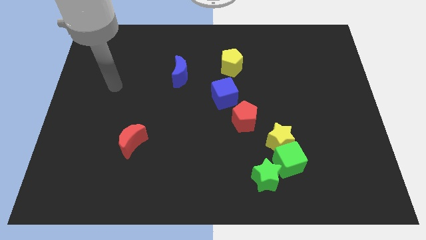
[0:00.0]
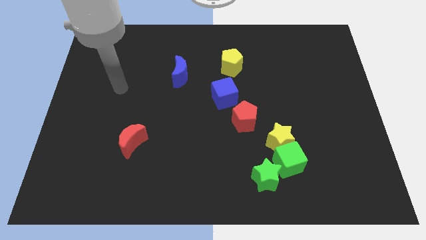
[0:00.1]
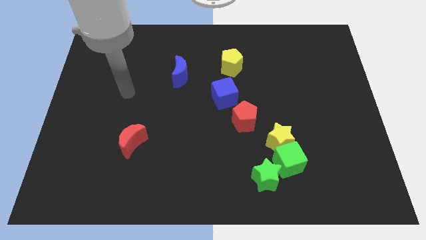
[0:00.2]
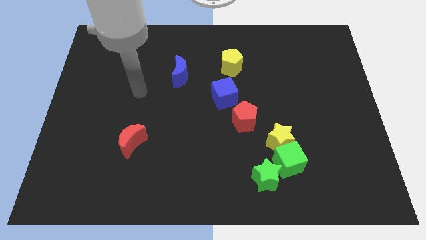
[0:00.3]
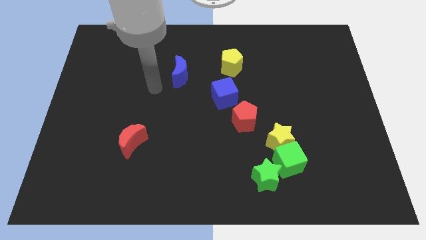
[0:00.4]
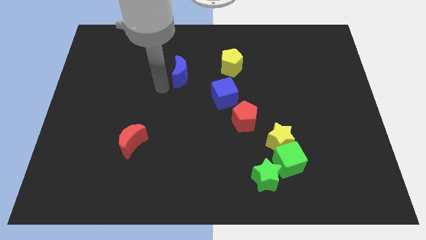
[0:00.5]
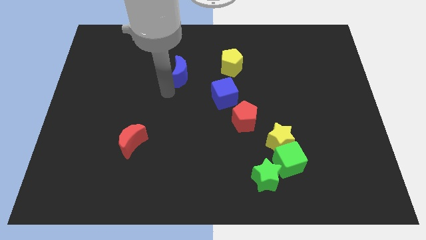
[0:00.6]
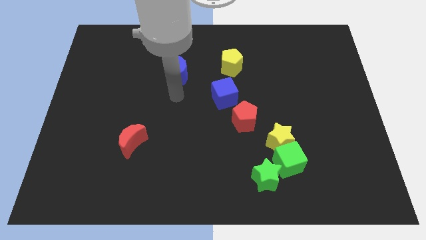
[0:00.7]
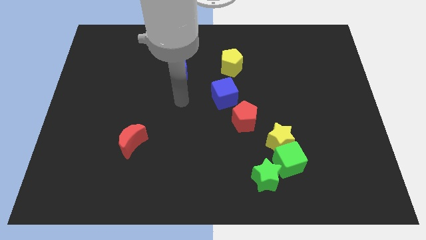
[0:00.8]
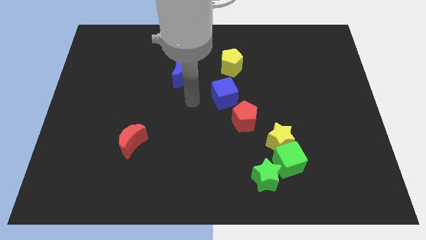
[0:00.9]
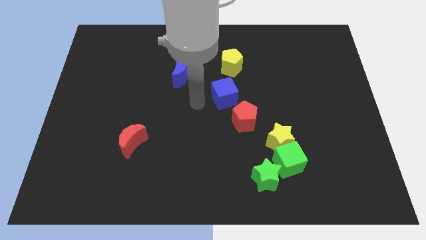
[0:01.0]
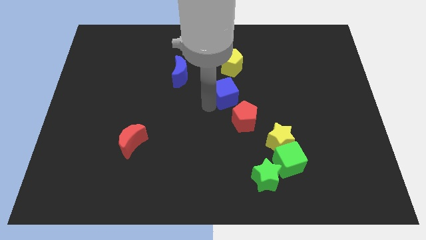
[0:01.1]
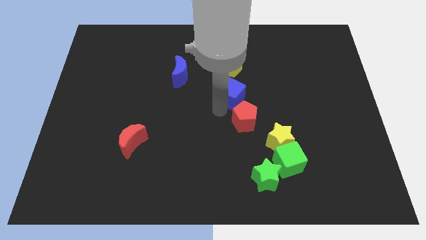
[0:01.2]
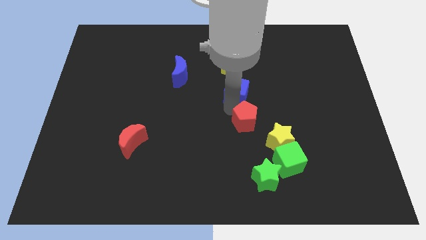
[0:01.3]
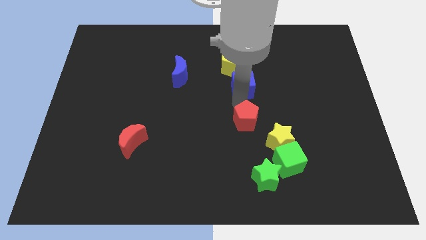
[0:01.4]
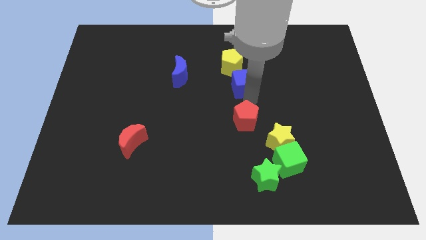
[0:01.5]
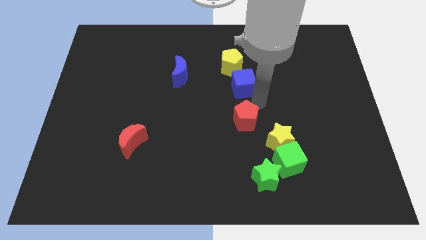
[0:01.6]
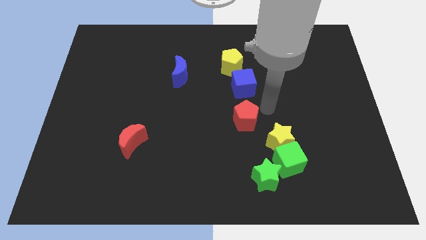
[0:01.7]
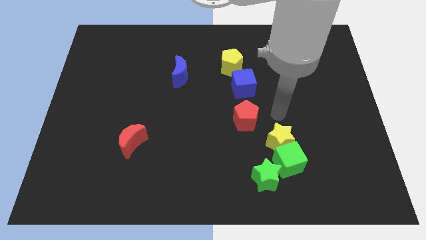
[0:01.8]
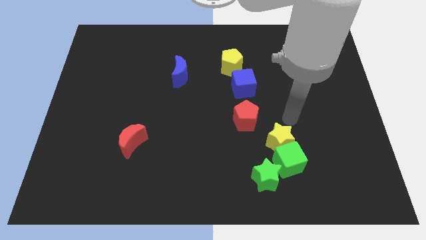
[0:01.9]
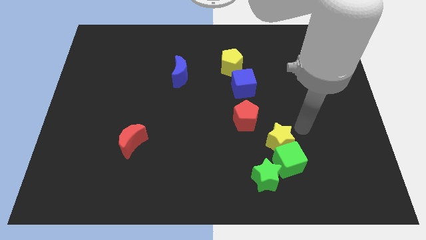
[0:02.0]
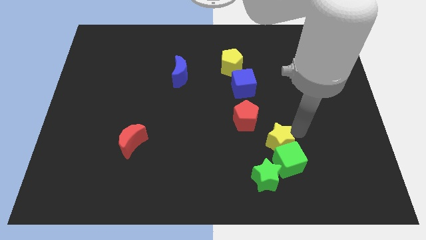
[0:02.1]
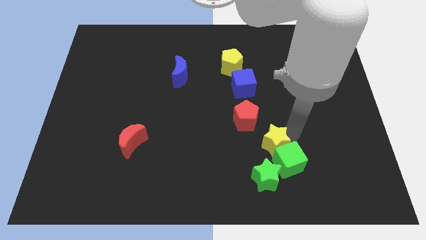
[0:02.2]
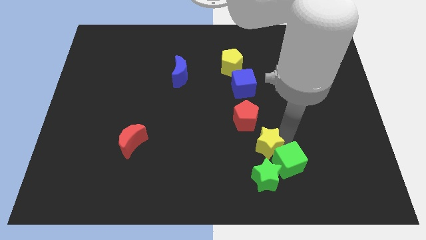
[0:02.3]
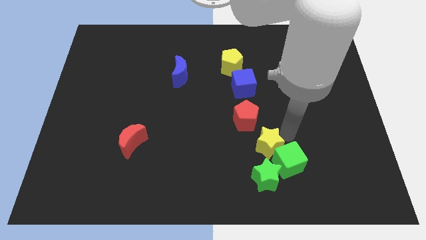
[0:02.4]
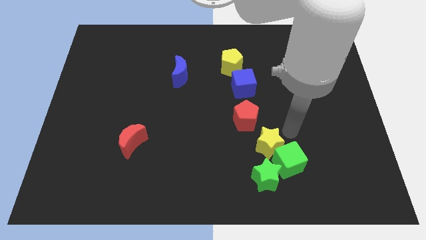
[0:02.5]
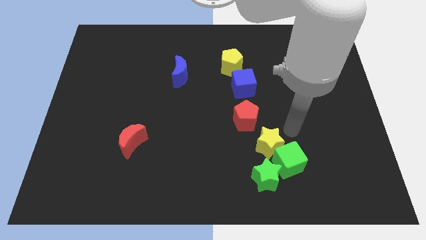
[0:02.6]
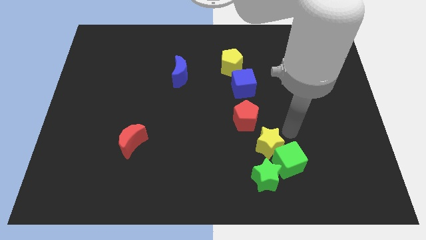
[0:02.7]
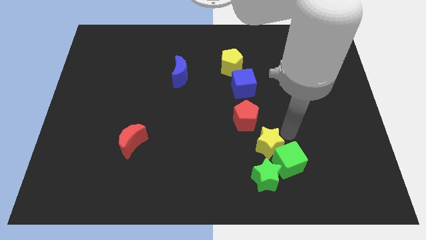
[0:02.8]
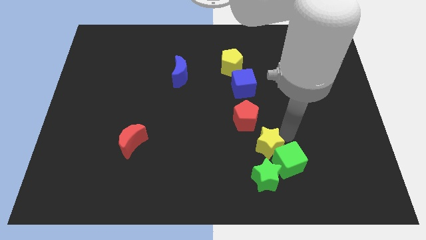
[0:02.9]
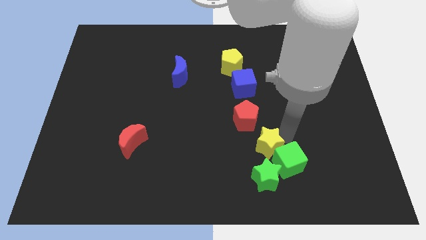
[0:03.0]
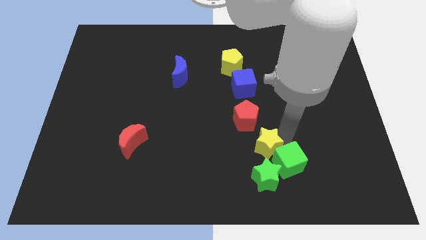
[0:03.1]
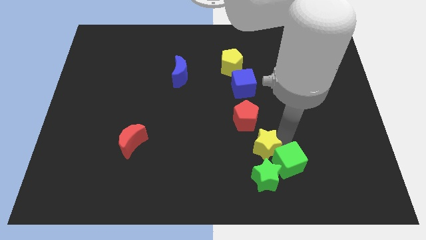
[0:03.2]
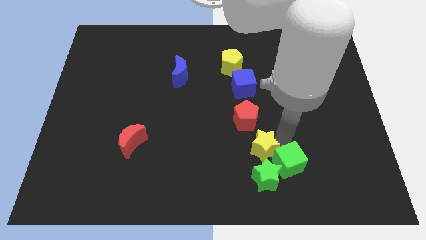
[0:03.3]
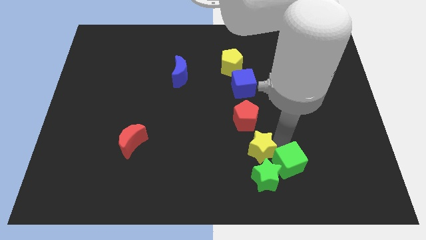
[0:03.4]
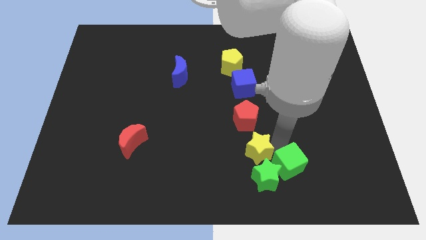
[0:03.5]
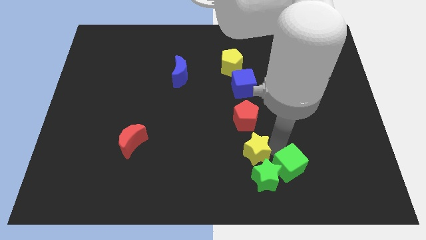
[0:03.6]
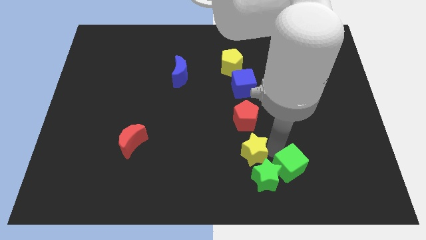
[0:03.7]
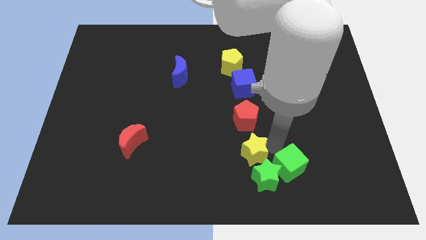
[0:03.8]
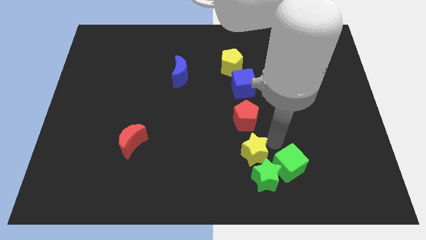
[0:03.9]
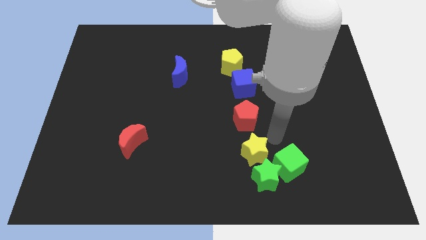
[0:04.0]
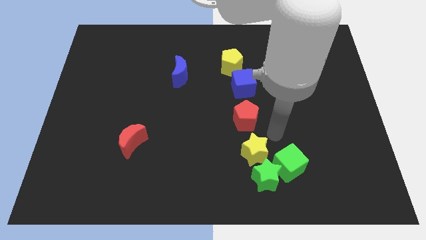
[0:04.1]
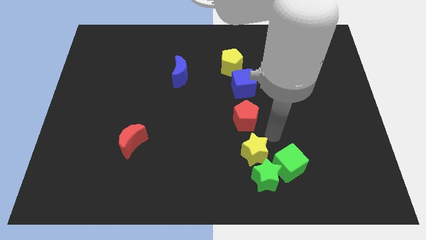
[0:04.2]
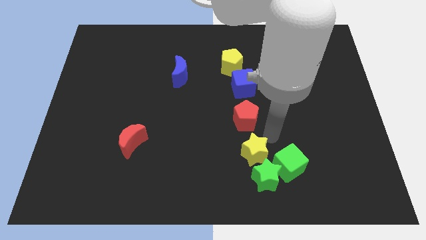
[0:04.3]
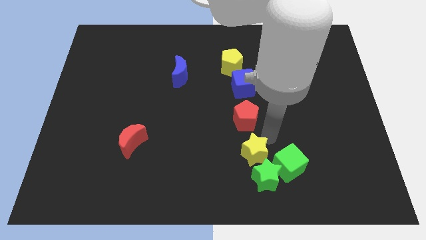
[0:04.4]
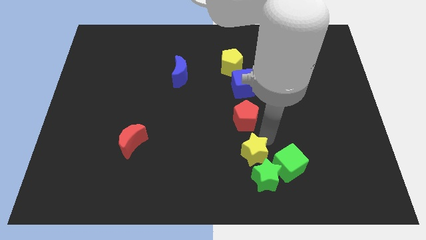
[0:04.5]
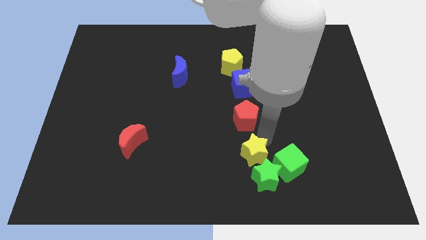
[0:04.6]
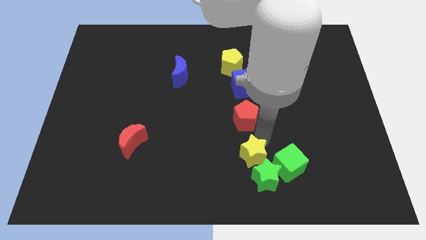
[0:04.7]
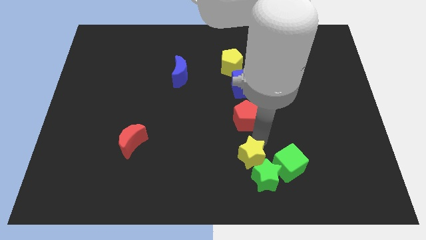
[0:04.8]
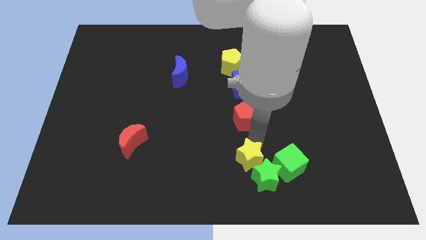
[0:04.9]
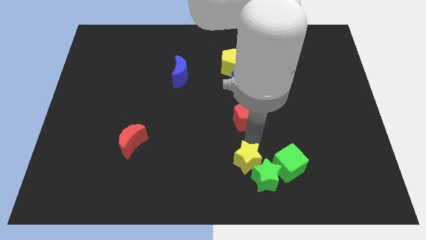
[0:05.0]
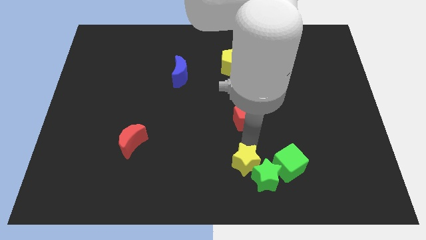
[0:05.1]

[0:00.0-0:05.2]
push the yellow star to the bottom

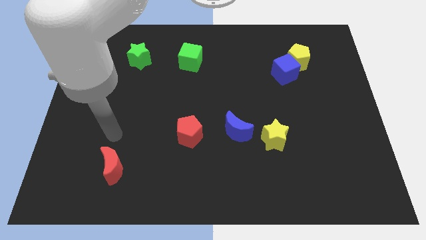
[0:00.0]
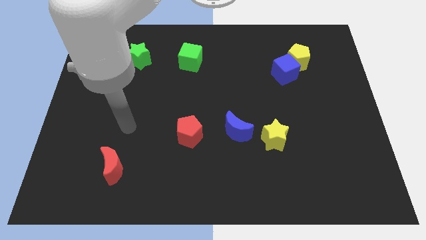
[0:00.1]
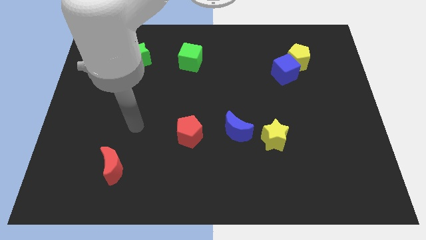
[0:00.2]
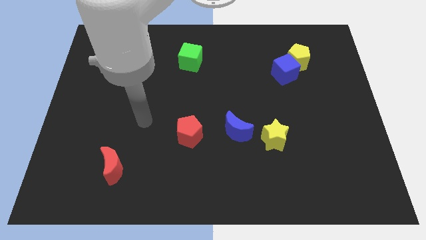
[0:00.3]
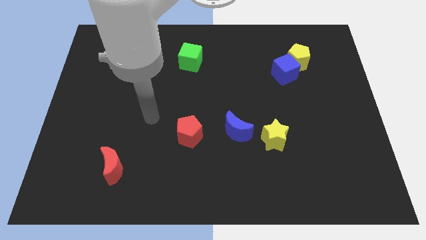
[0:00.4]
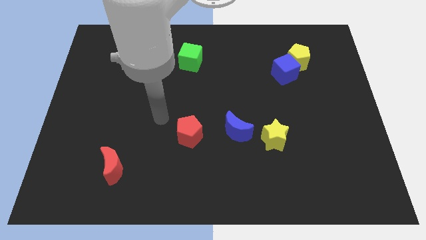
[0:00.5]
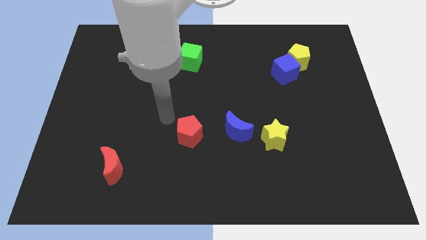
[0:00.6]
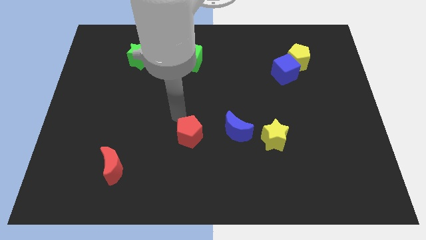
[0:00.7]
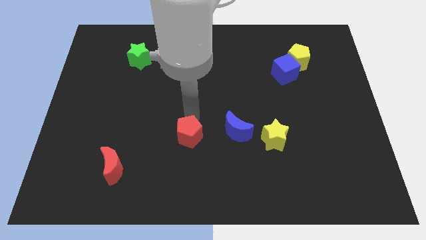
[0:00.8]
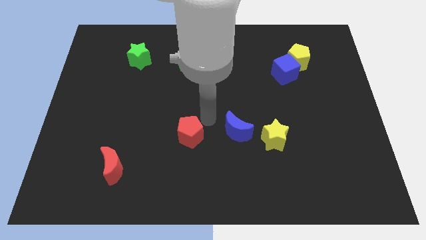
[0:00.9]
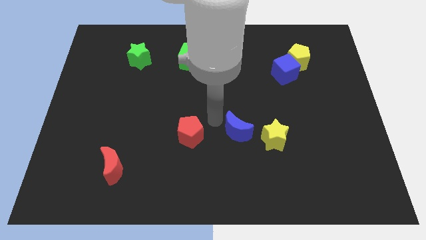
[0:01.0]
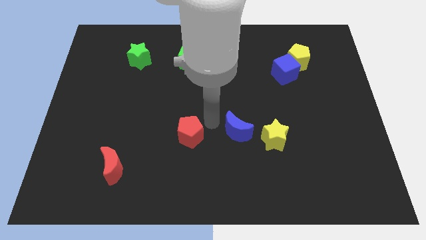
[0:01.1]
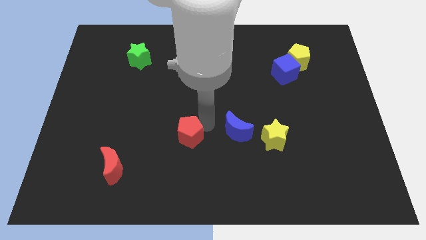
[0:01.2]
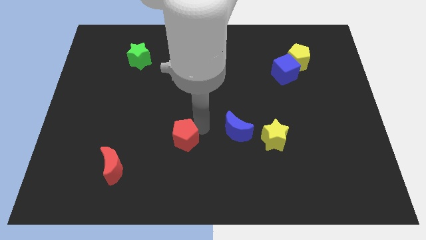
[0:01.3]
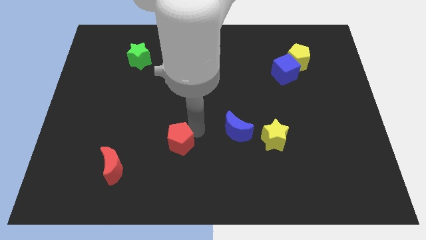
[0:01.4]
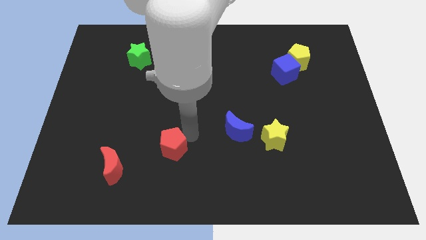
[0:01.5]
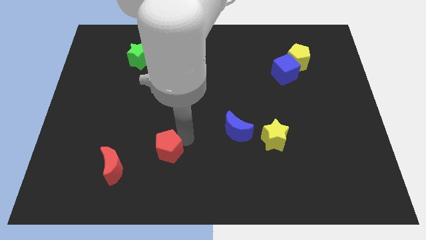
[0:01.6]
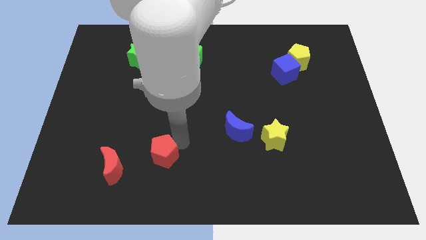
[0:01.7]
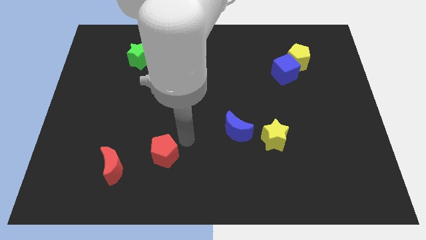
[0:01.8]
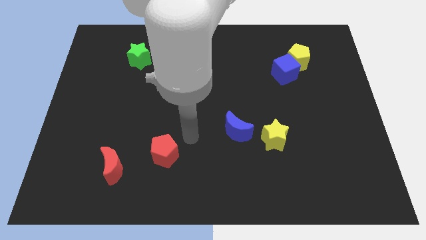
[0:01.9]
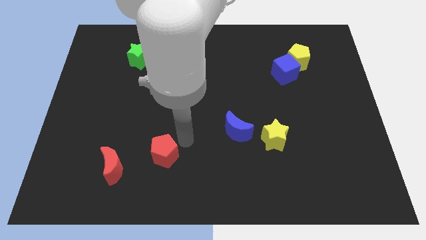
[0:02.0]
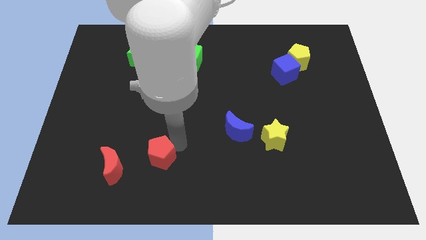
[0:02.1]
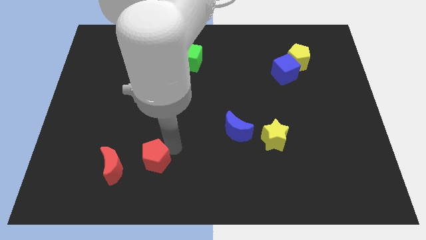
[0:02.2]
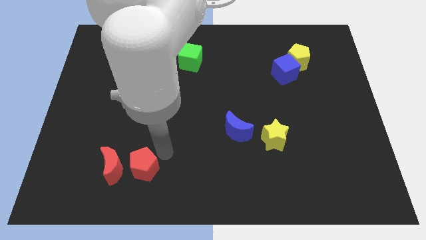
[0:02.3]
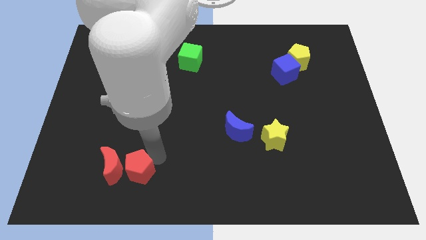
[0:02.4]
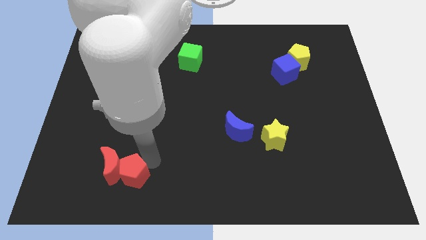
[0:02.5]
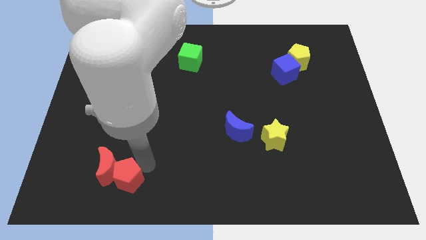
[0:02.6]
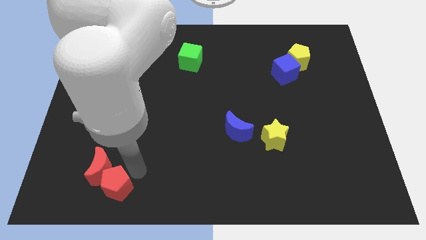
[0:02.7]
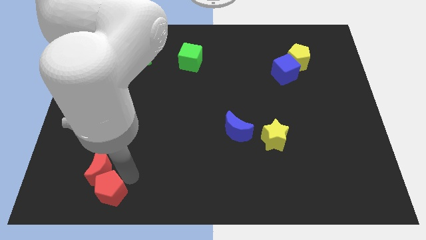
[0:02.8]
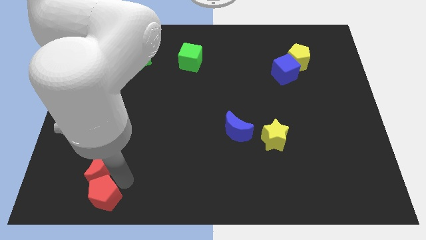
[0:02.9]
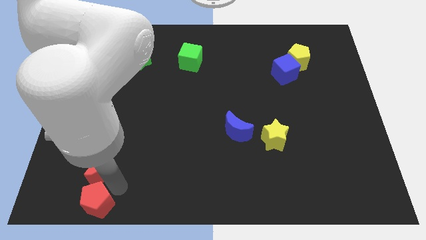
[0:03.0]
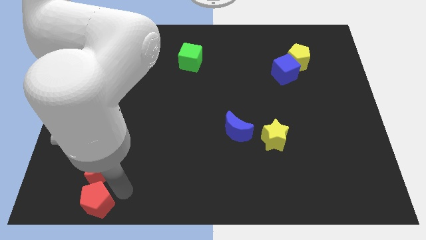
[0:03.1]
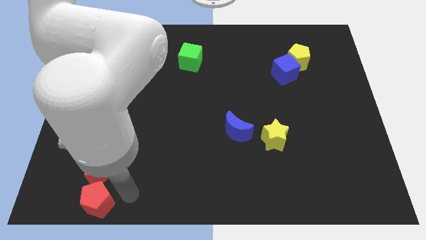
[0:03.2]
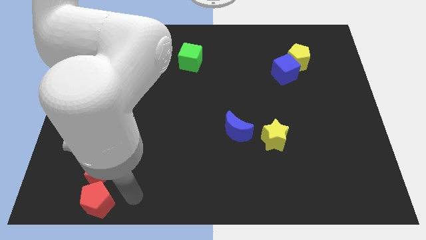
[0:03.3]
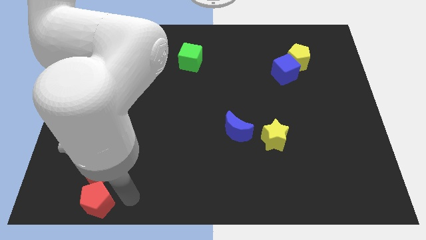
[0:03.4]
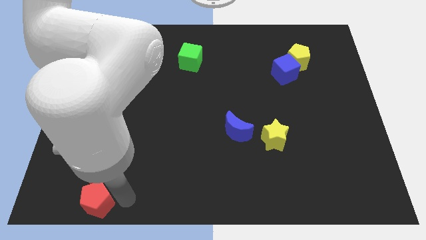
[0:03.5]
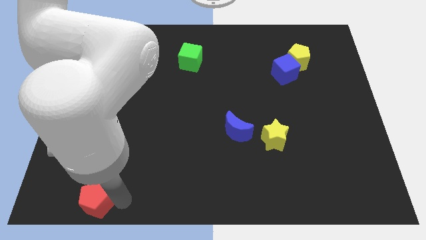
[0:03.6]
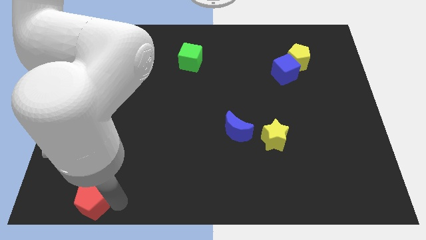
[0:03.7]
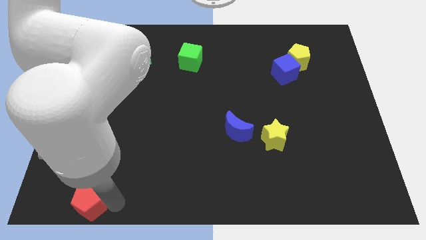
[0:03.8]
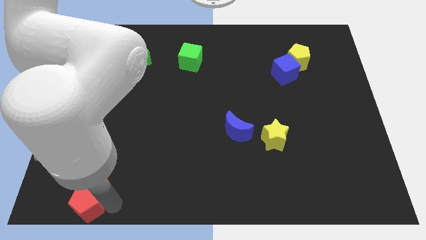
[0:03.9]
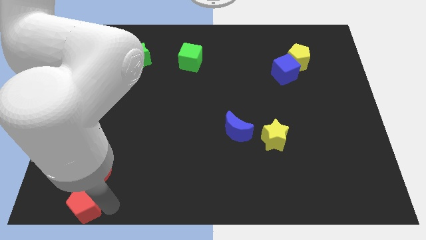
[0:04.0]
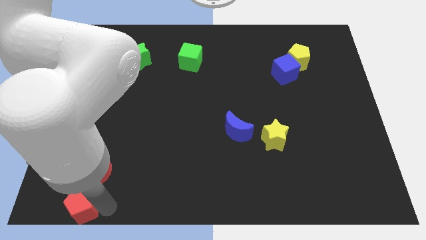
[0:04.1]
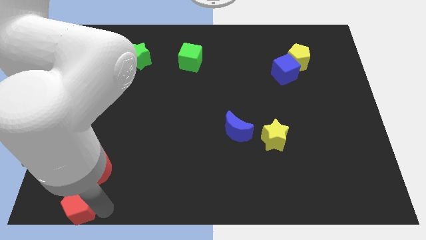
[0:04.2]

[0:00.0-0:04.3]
move the red pentagon to the bottom left of the board
